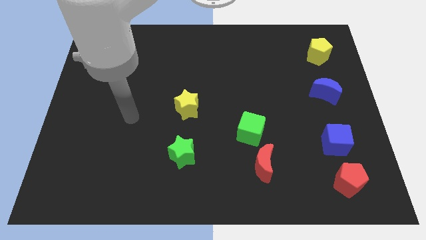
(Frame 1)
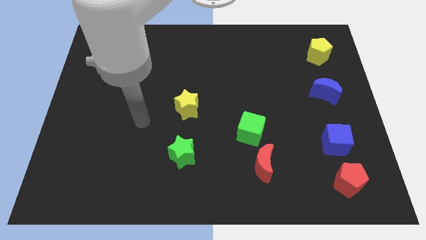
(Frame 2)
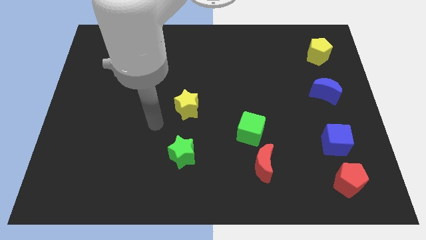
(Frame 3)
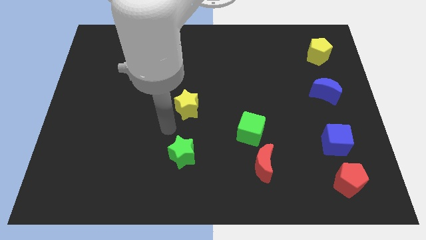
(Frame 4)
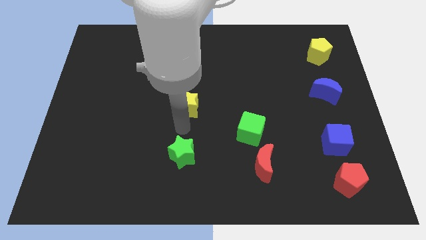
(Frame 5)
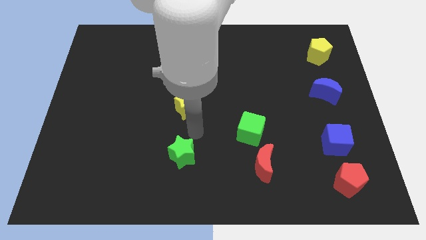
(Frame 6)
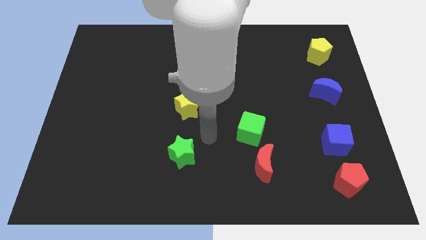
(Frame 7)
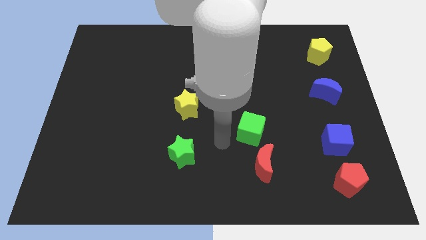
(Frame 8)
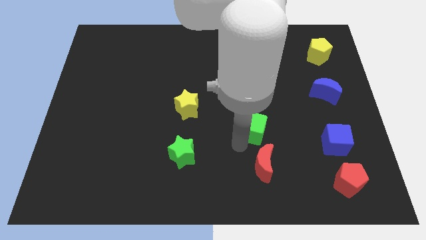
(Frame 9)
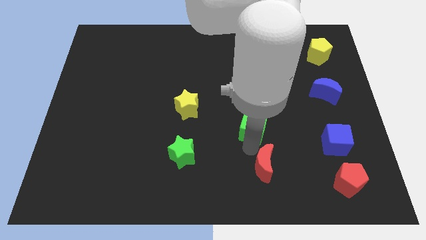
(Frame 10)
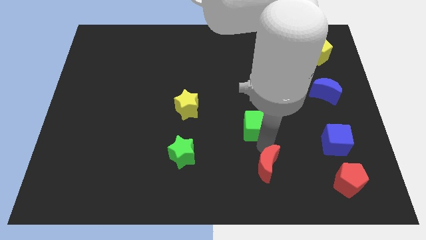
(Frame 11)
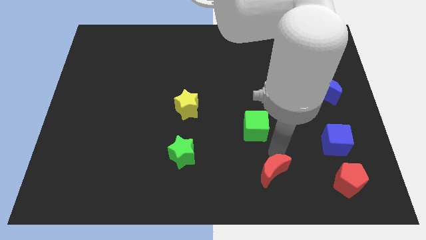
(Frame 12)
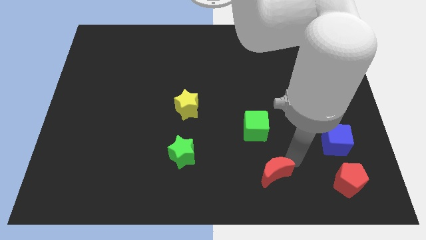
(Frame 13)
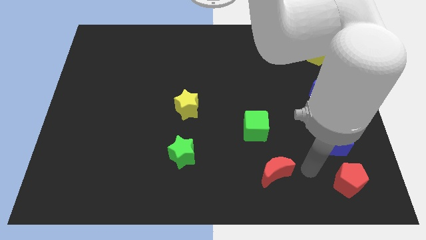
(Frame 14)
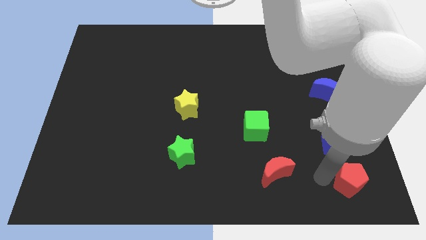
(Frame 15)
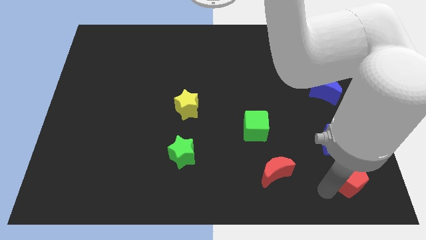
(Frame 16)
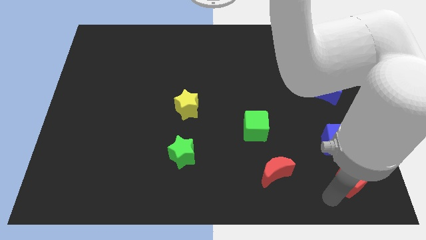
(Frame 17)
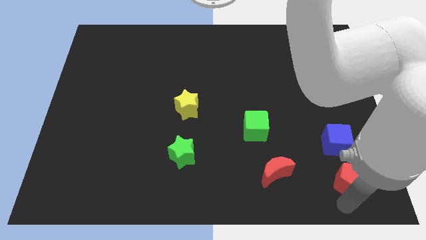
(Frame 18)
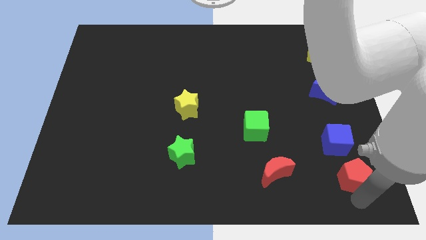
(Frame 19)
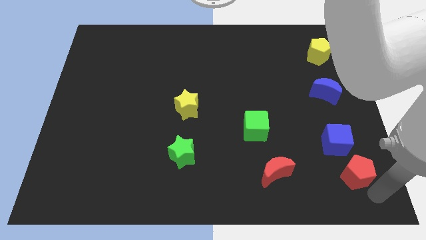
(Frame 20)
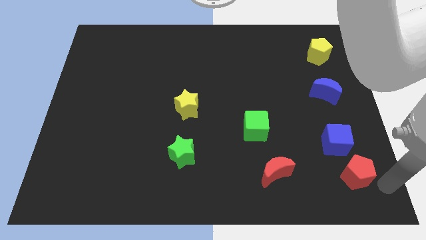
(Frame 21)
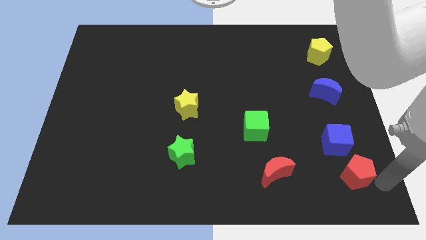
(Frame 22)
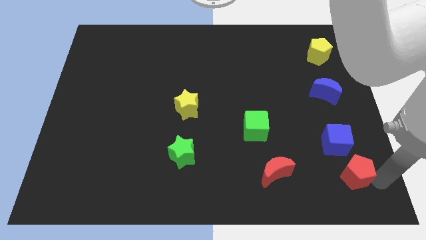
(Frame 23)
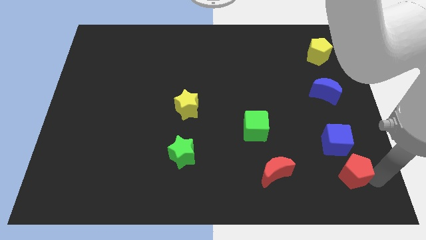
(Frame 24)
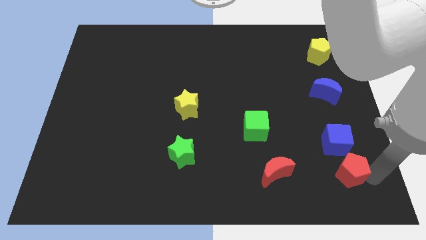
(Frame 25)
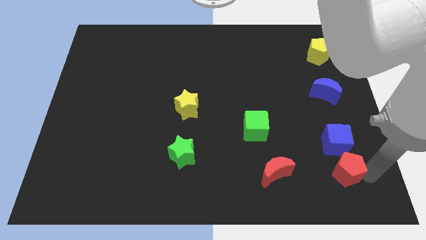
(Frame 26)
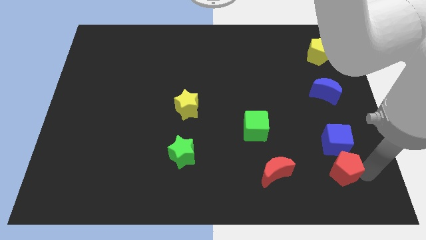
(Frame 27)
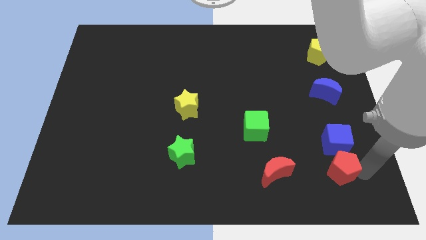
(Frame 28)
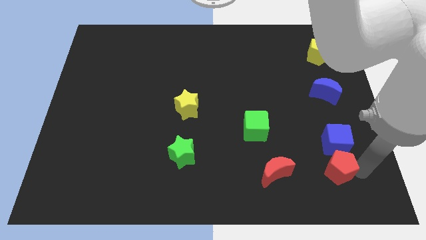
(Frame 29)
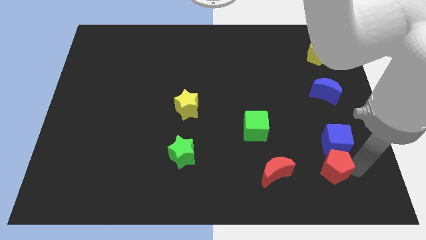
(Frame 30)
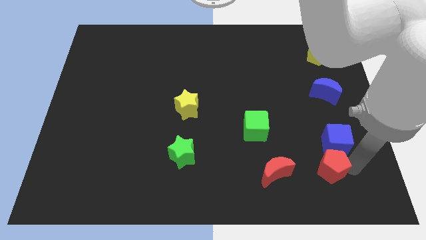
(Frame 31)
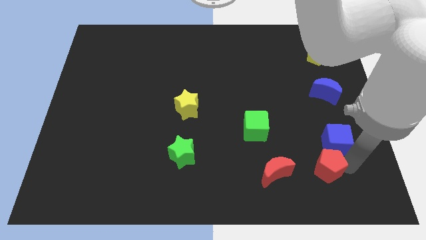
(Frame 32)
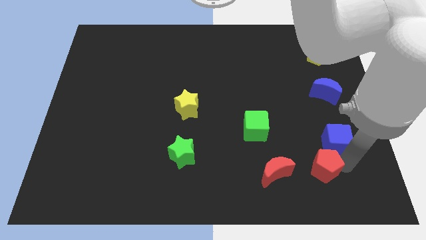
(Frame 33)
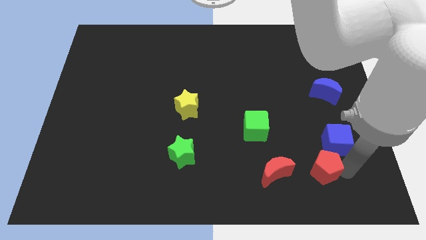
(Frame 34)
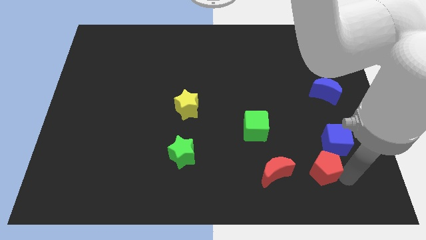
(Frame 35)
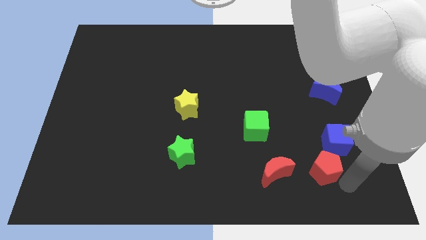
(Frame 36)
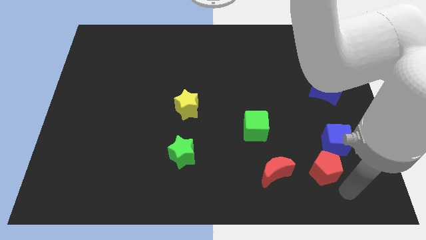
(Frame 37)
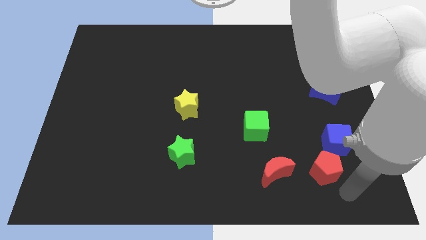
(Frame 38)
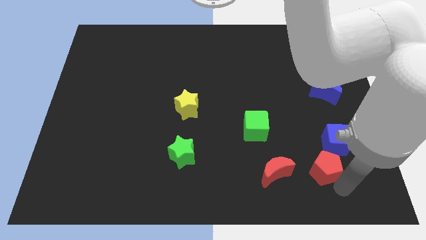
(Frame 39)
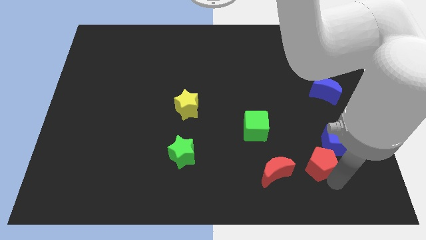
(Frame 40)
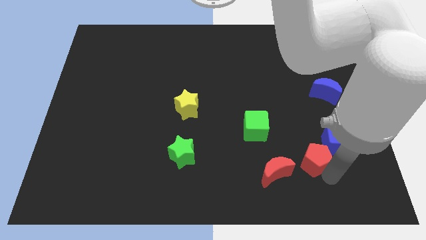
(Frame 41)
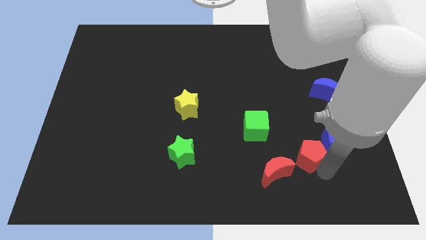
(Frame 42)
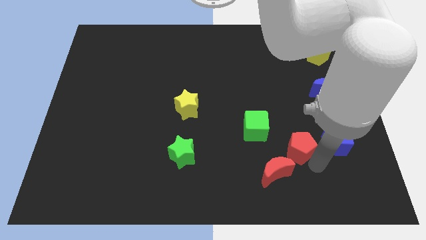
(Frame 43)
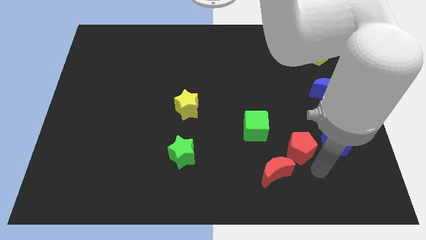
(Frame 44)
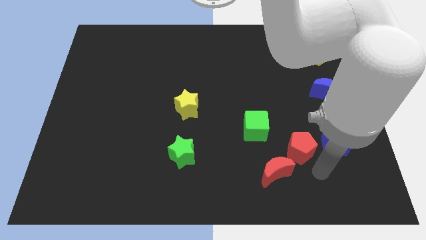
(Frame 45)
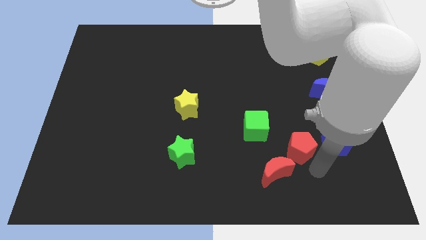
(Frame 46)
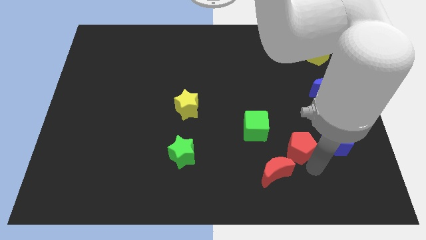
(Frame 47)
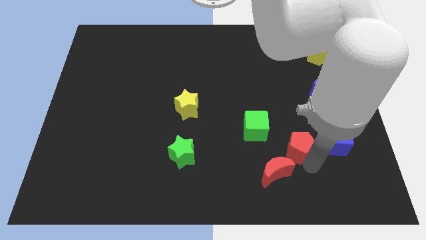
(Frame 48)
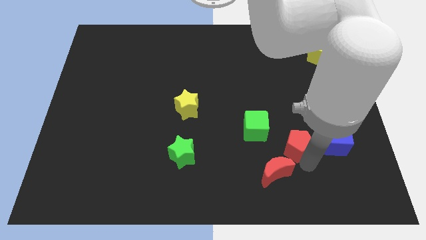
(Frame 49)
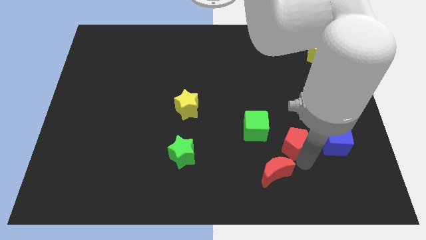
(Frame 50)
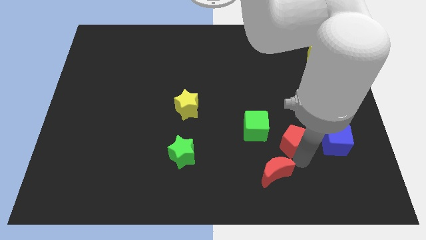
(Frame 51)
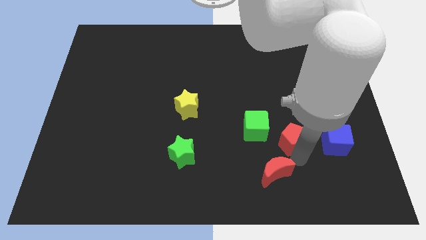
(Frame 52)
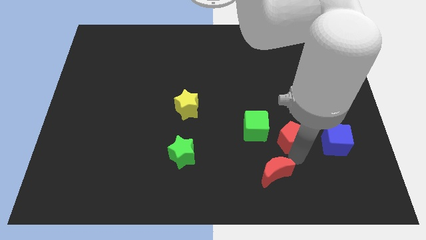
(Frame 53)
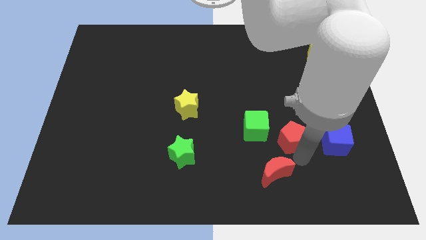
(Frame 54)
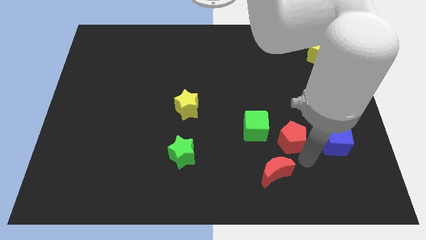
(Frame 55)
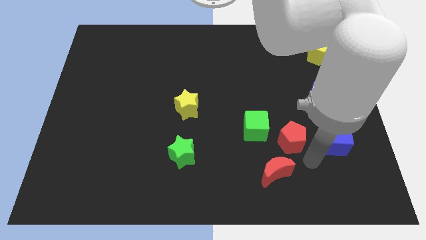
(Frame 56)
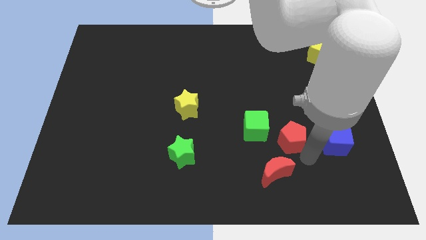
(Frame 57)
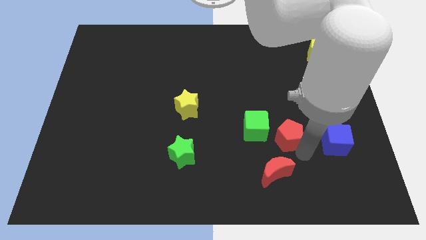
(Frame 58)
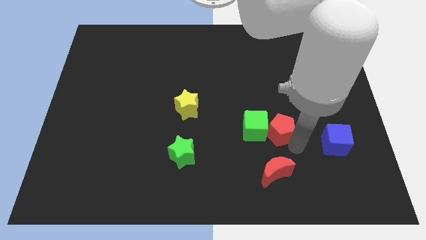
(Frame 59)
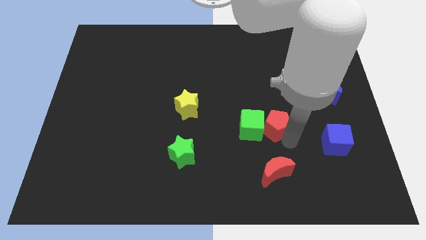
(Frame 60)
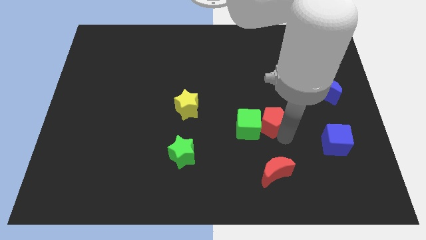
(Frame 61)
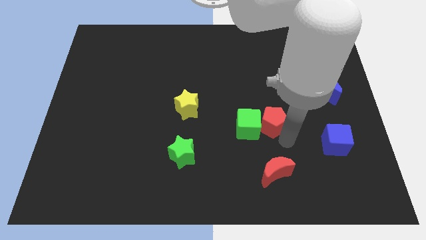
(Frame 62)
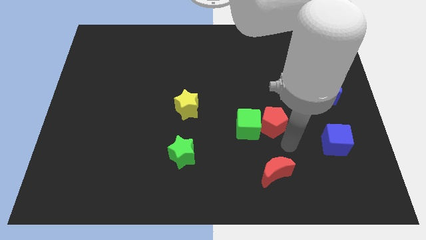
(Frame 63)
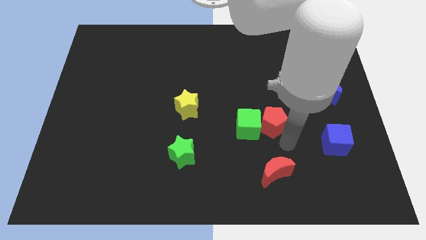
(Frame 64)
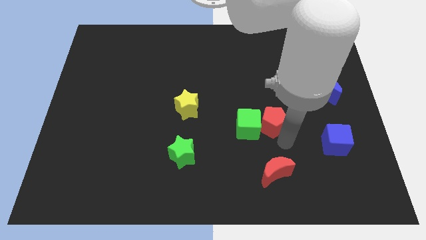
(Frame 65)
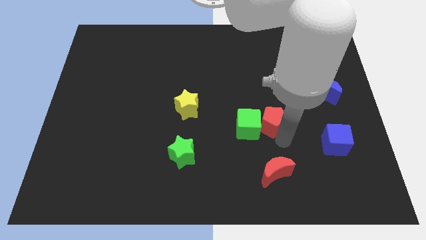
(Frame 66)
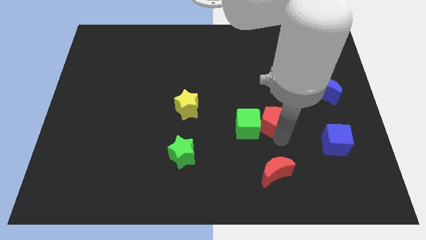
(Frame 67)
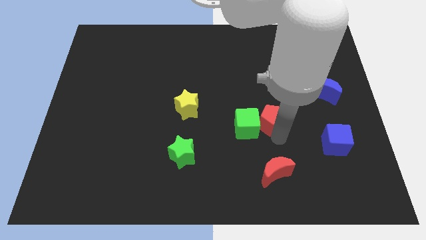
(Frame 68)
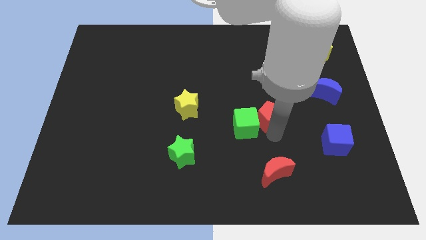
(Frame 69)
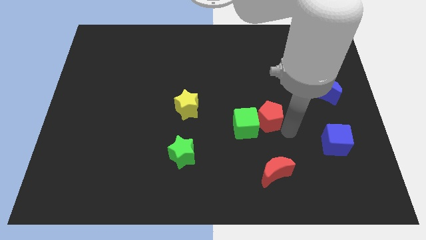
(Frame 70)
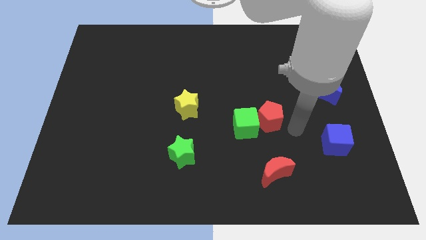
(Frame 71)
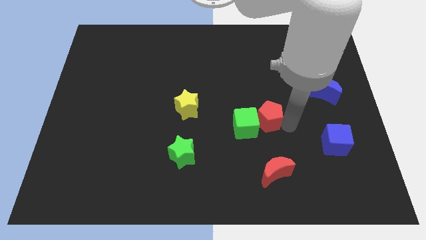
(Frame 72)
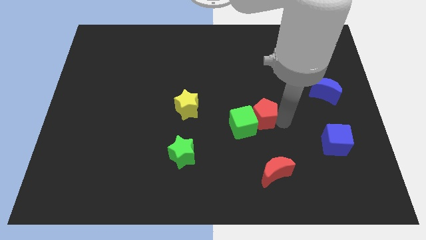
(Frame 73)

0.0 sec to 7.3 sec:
move the red pentagon to the middle
